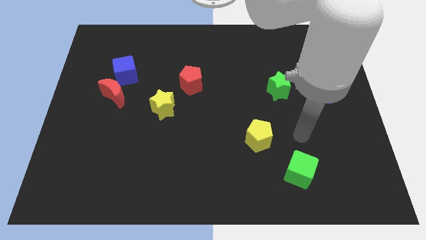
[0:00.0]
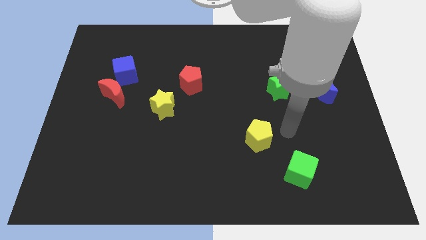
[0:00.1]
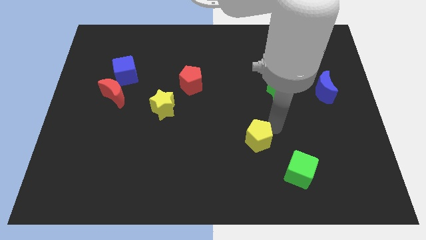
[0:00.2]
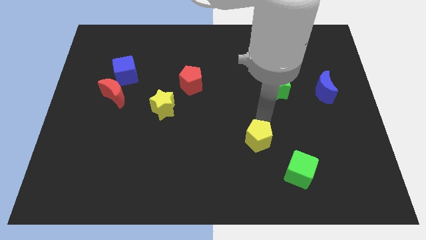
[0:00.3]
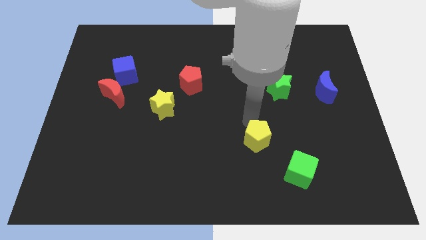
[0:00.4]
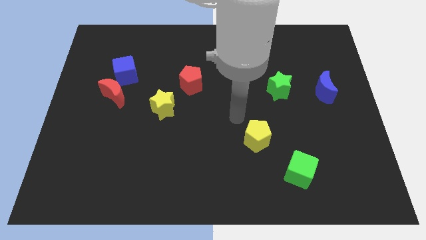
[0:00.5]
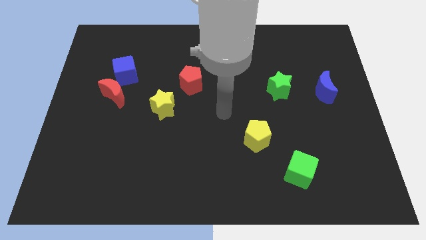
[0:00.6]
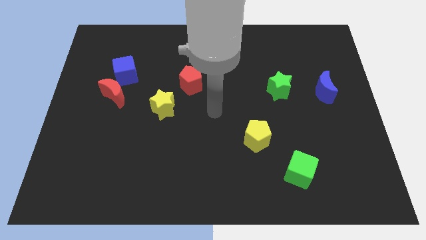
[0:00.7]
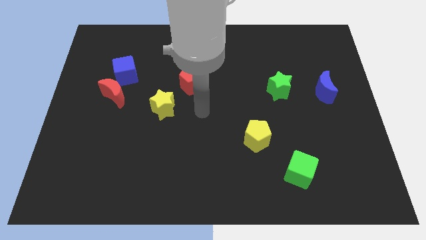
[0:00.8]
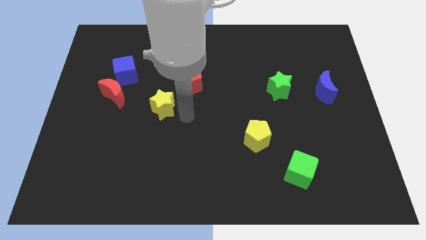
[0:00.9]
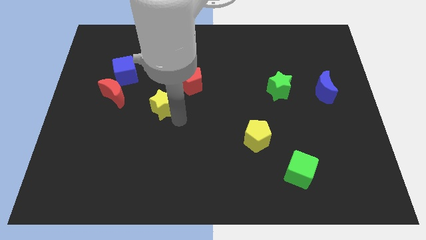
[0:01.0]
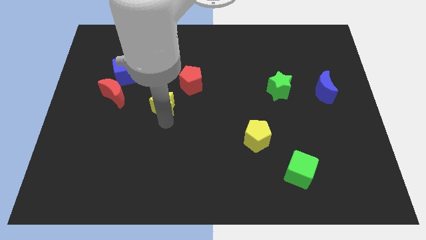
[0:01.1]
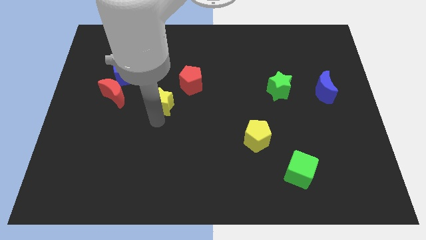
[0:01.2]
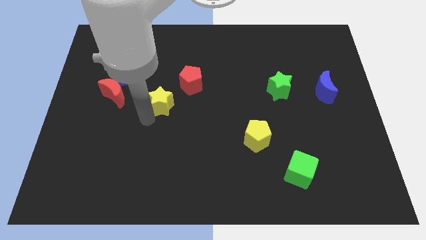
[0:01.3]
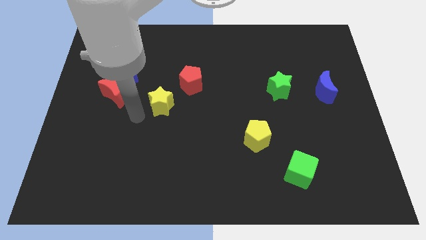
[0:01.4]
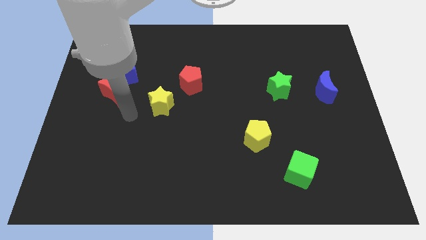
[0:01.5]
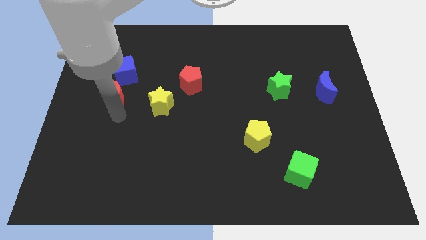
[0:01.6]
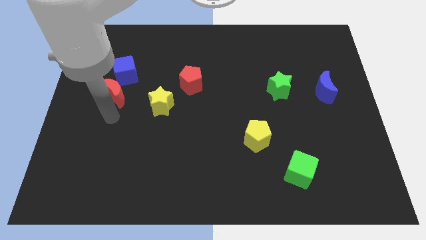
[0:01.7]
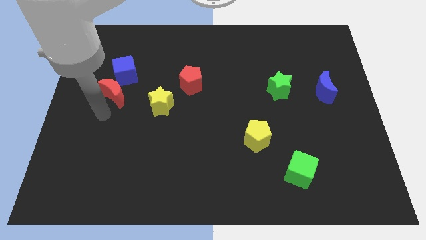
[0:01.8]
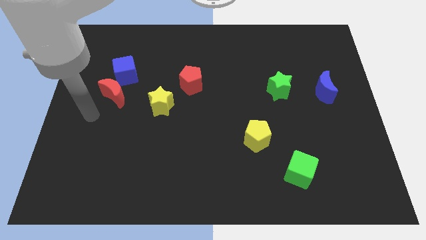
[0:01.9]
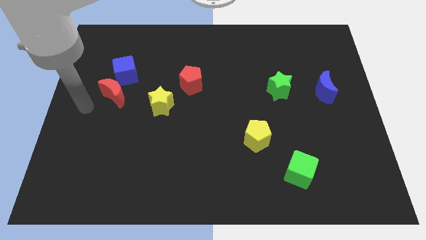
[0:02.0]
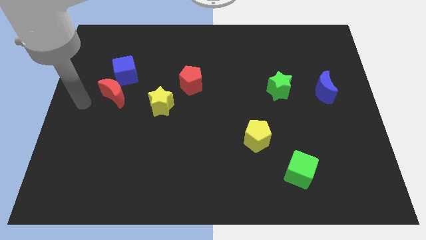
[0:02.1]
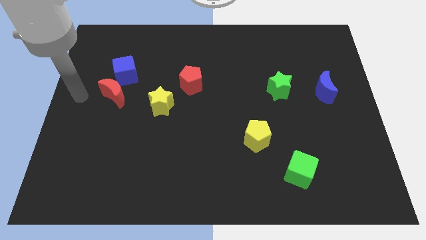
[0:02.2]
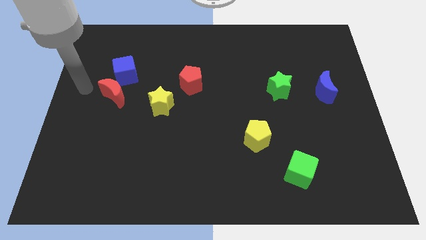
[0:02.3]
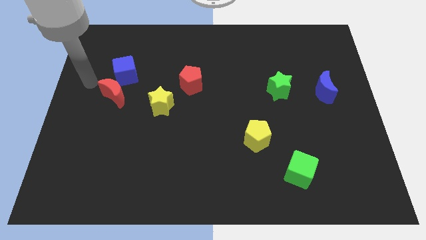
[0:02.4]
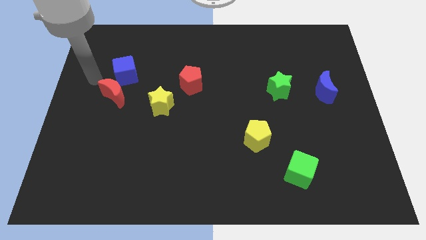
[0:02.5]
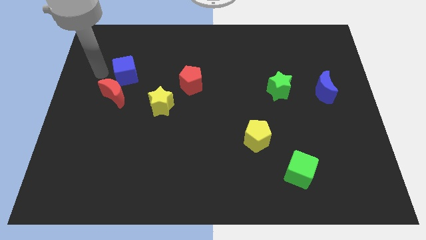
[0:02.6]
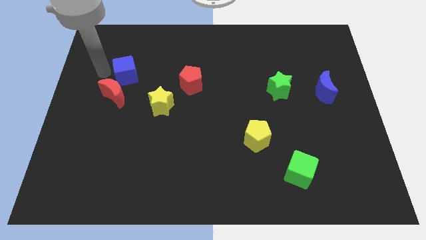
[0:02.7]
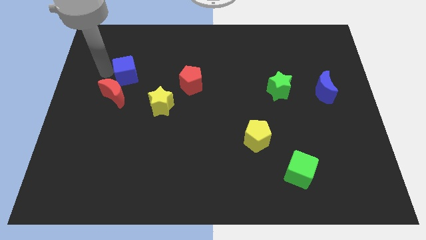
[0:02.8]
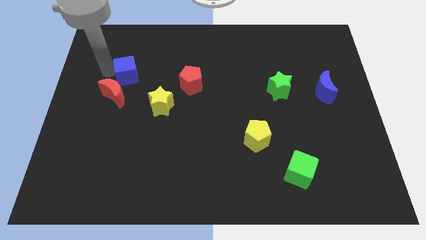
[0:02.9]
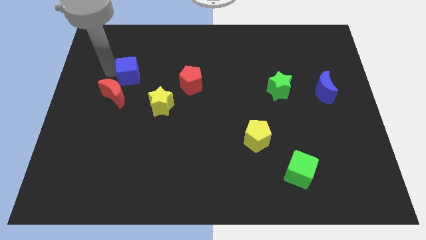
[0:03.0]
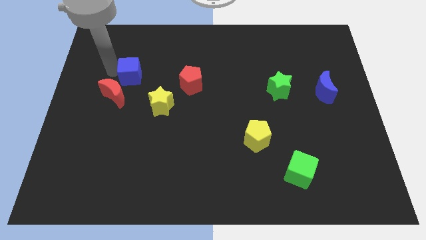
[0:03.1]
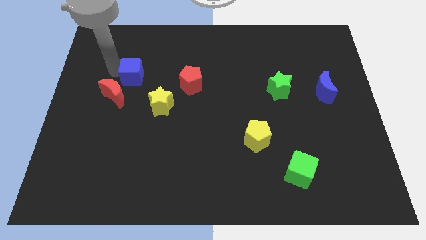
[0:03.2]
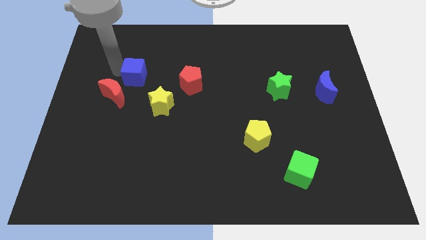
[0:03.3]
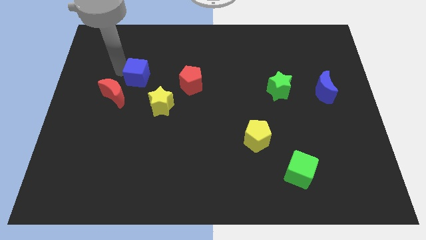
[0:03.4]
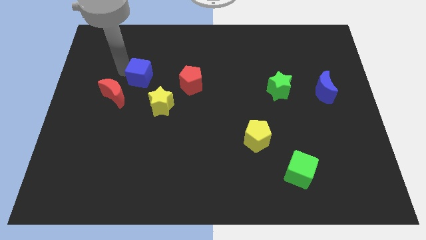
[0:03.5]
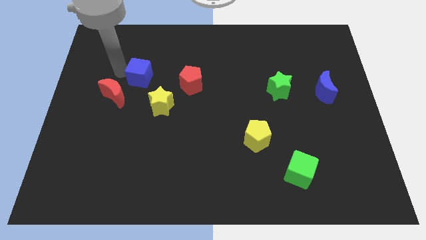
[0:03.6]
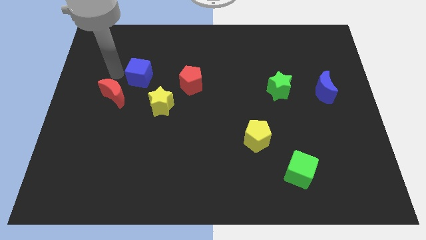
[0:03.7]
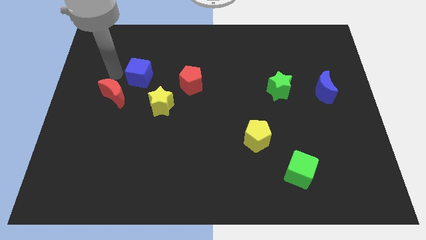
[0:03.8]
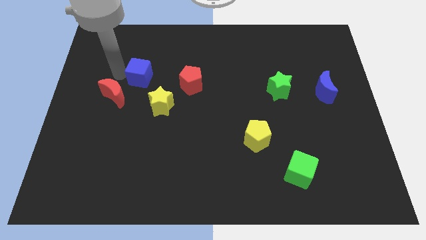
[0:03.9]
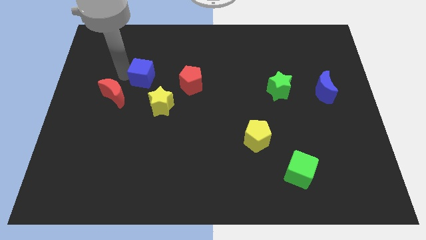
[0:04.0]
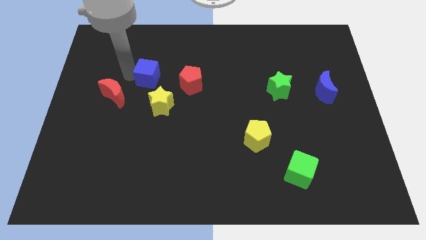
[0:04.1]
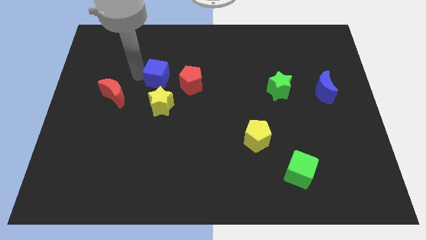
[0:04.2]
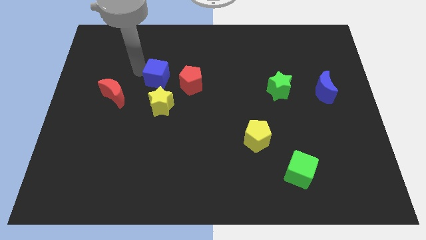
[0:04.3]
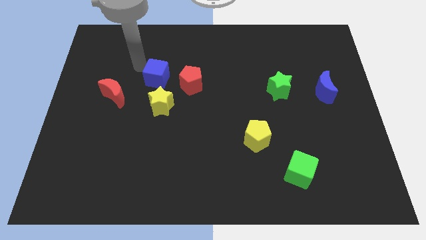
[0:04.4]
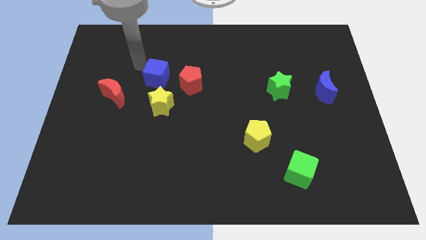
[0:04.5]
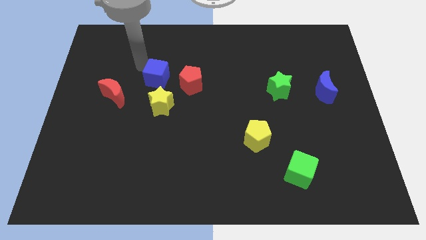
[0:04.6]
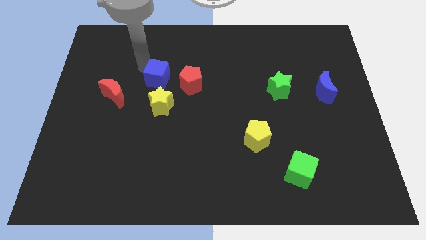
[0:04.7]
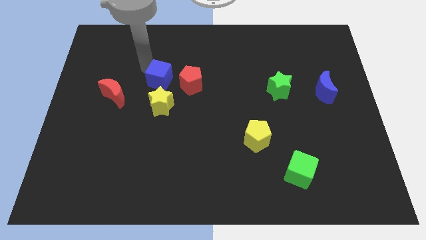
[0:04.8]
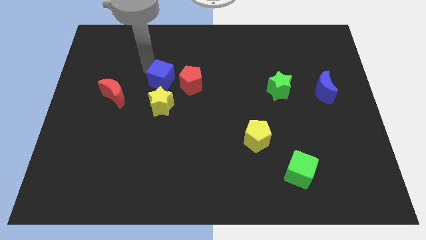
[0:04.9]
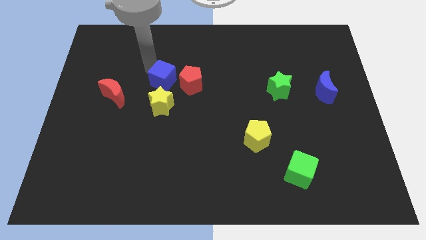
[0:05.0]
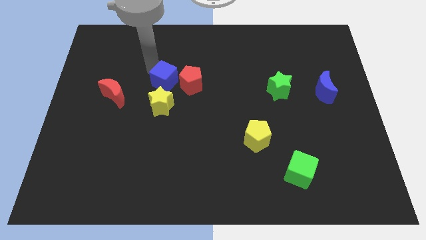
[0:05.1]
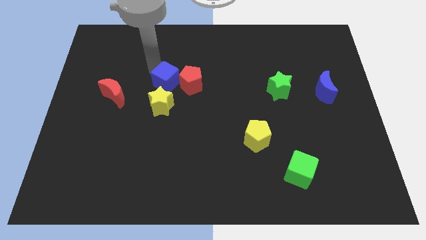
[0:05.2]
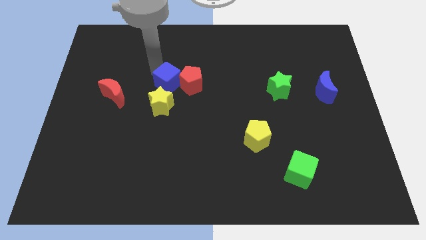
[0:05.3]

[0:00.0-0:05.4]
push the blue cube to the middle of the board
